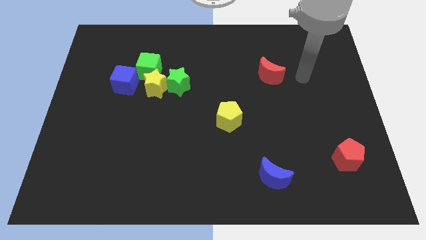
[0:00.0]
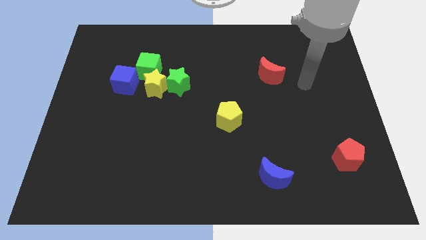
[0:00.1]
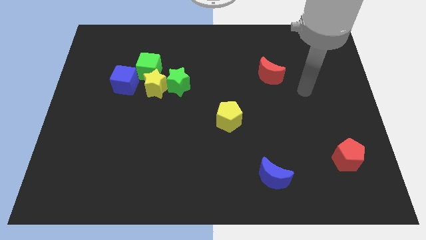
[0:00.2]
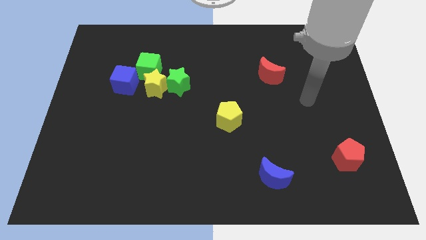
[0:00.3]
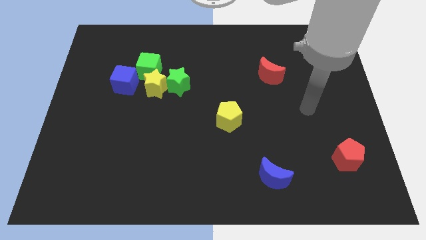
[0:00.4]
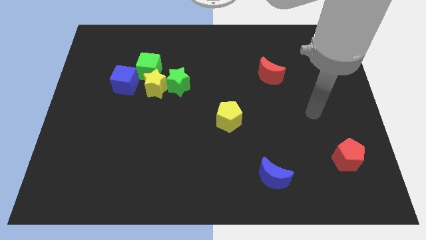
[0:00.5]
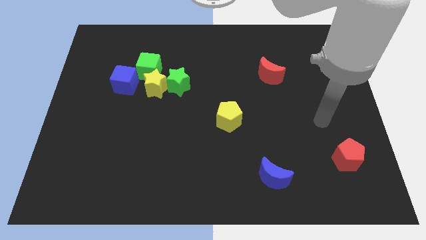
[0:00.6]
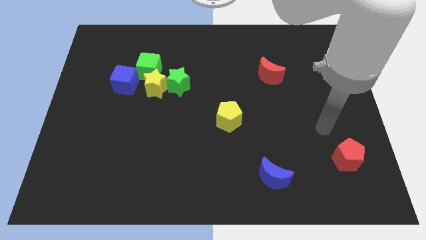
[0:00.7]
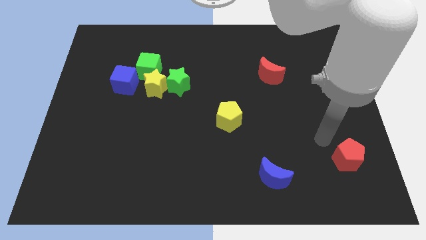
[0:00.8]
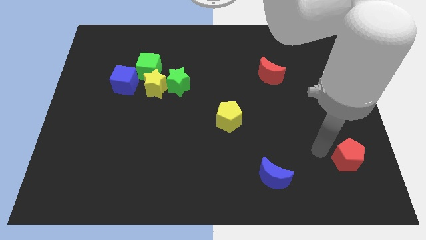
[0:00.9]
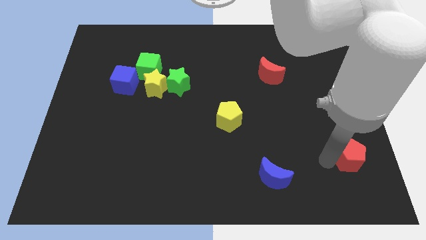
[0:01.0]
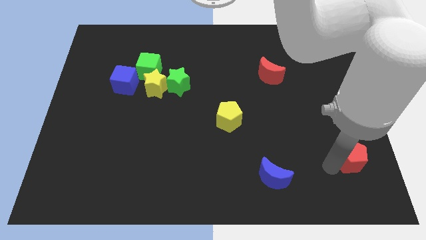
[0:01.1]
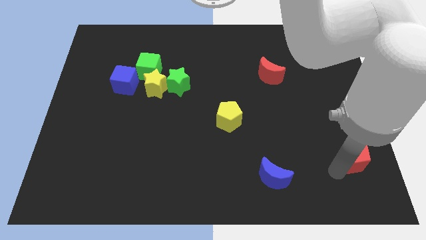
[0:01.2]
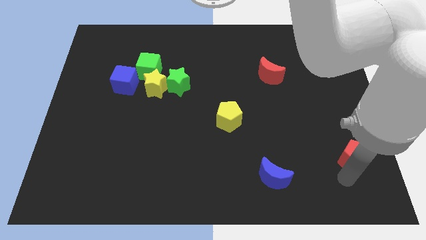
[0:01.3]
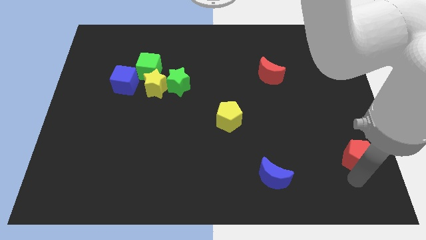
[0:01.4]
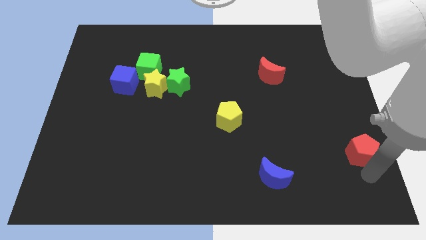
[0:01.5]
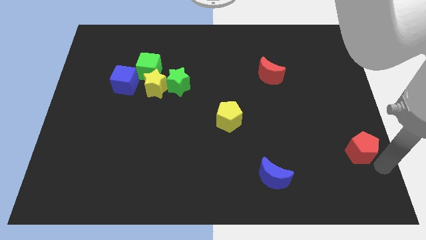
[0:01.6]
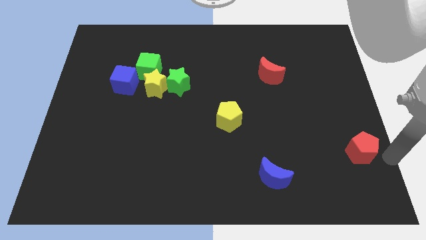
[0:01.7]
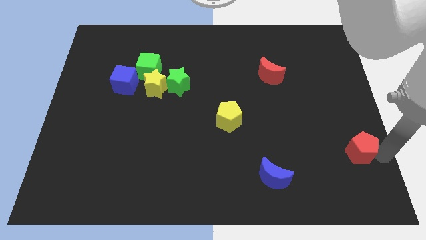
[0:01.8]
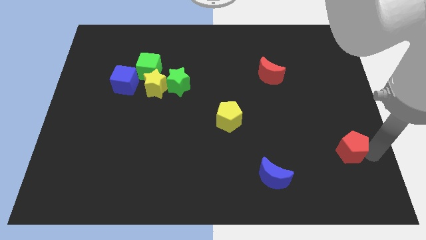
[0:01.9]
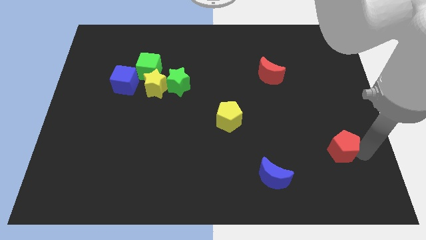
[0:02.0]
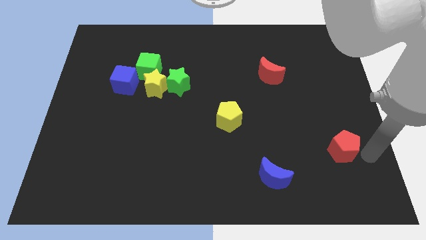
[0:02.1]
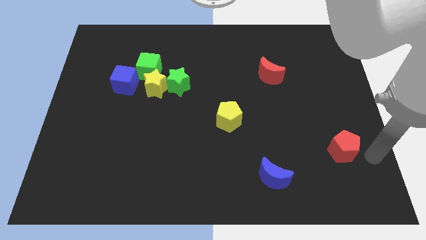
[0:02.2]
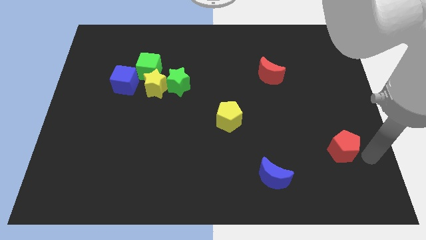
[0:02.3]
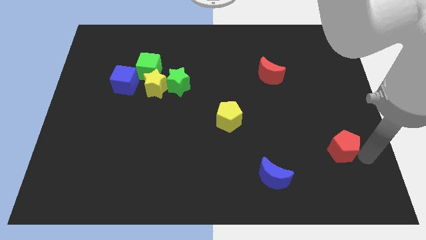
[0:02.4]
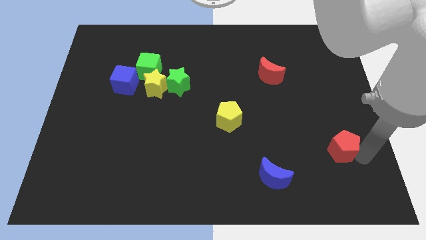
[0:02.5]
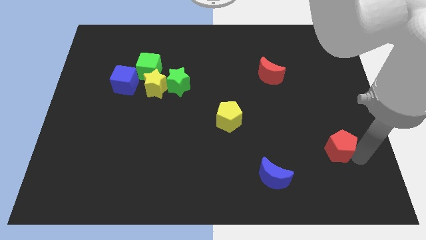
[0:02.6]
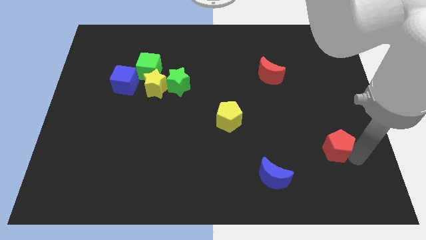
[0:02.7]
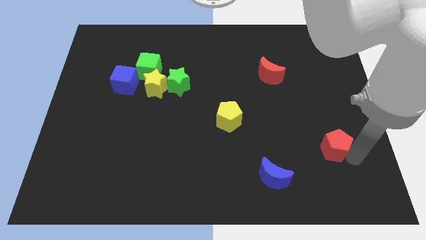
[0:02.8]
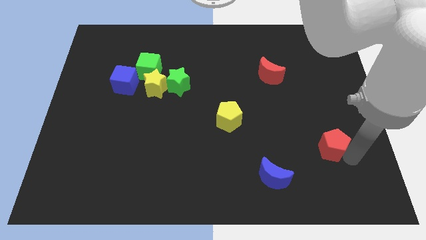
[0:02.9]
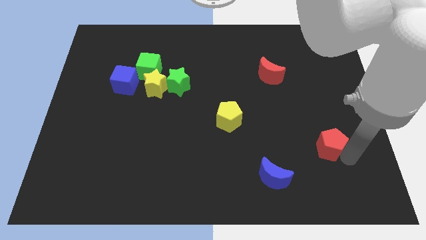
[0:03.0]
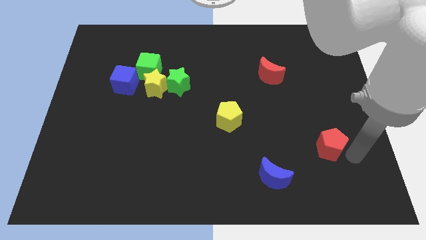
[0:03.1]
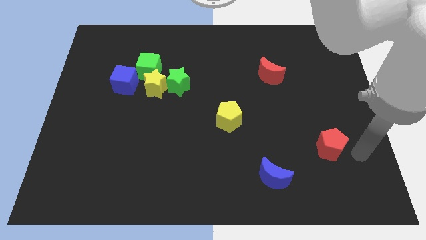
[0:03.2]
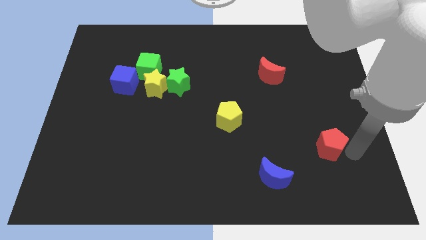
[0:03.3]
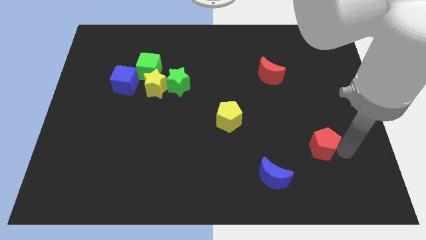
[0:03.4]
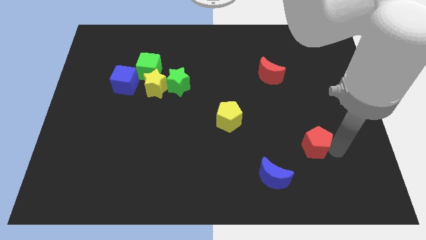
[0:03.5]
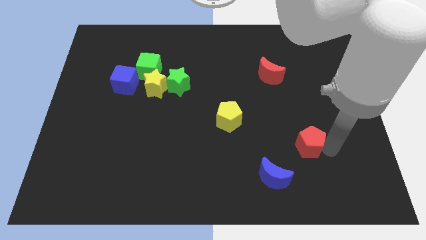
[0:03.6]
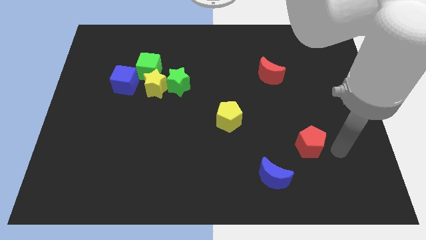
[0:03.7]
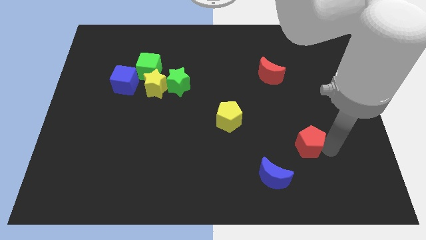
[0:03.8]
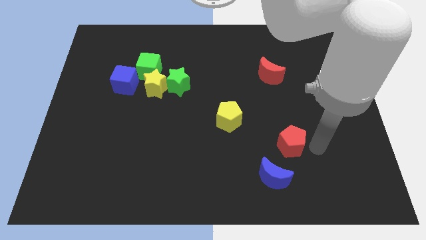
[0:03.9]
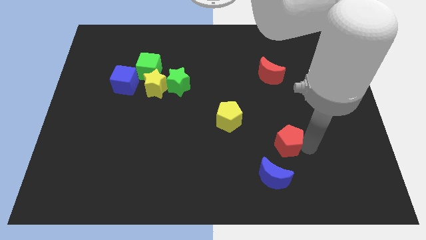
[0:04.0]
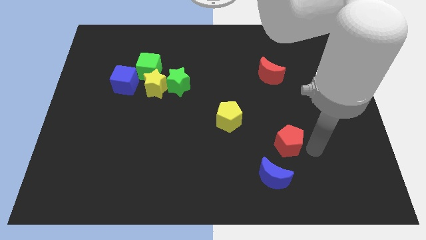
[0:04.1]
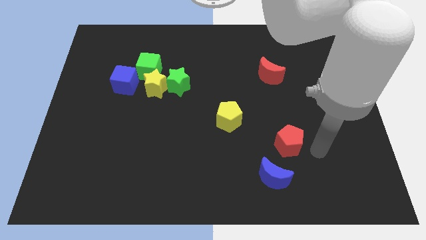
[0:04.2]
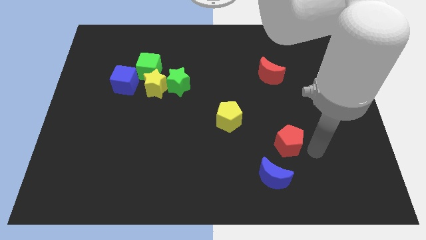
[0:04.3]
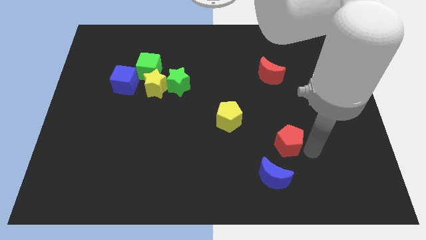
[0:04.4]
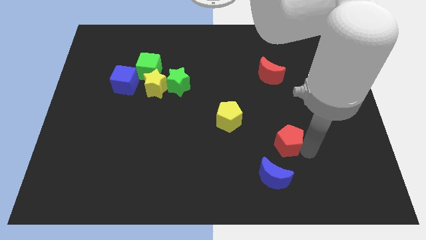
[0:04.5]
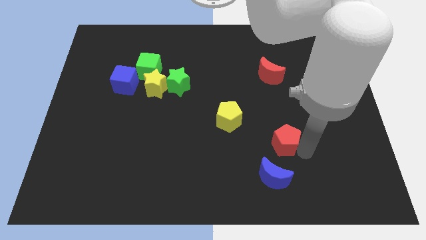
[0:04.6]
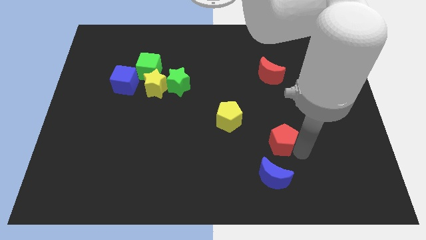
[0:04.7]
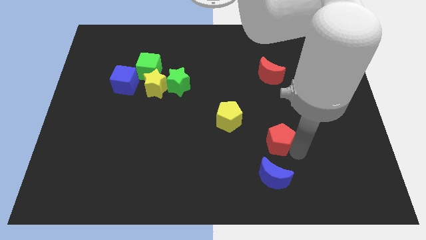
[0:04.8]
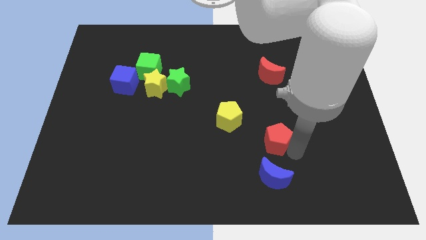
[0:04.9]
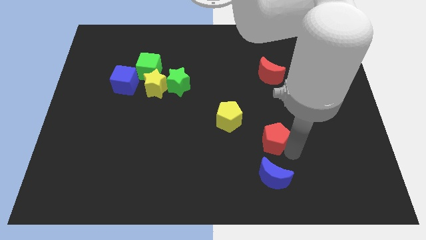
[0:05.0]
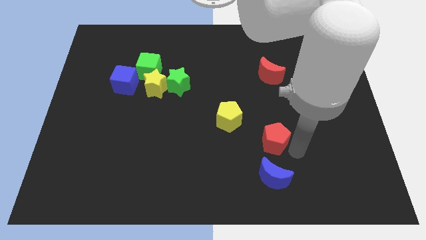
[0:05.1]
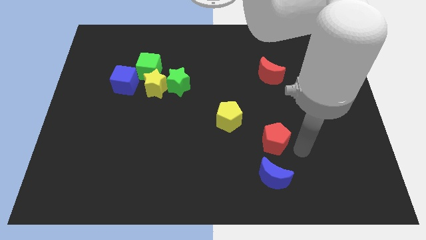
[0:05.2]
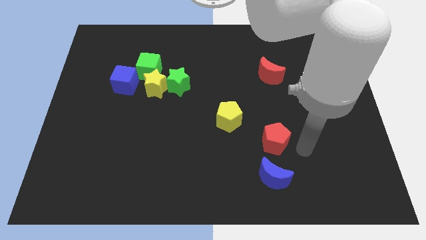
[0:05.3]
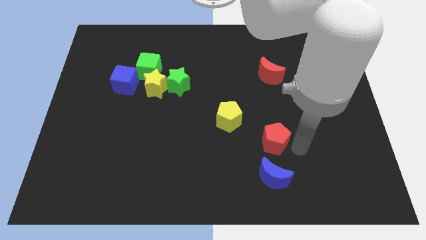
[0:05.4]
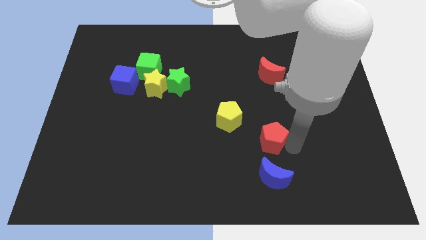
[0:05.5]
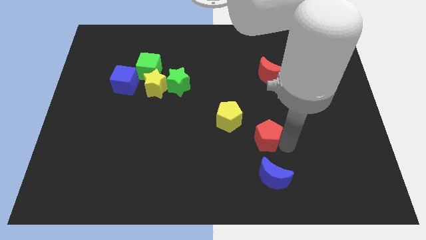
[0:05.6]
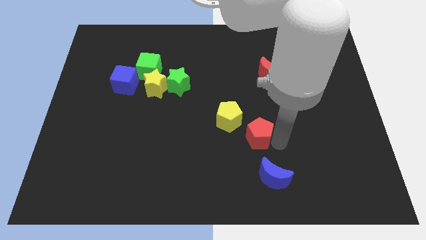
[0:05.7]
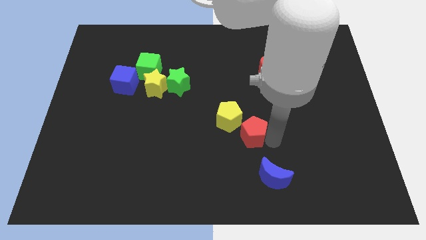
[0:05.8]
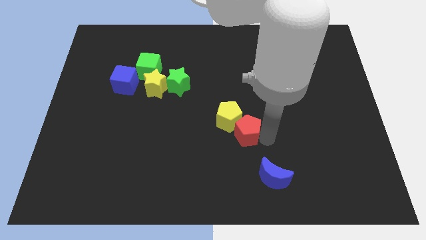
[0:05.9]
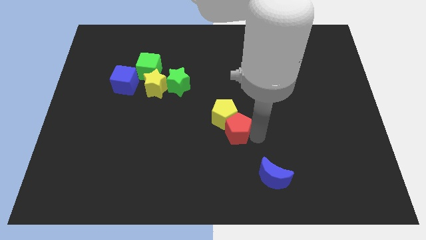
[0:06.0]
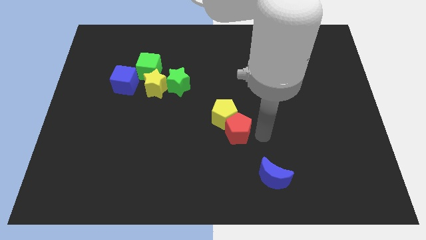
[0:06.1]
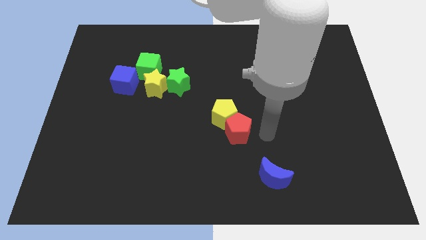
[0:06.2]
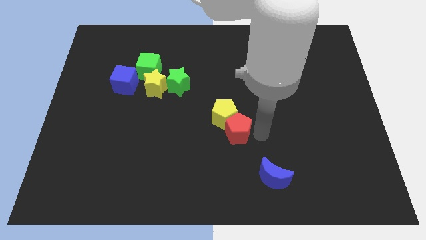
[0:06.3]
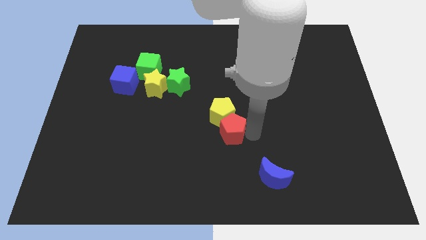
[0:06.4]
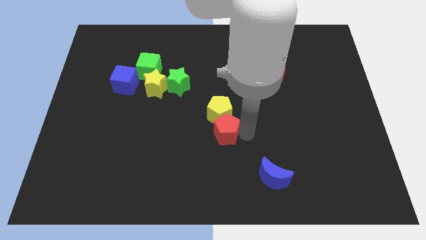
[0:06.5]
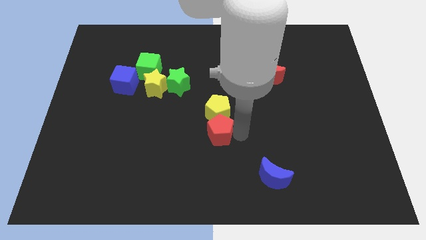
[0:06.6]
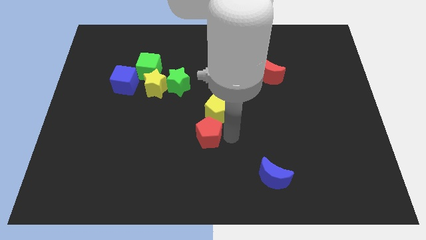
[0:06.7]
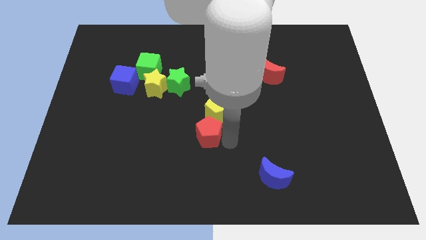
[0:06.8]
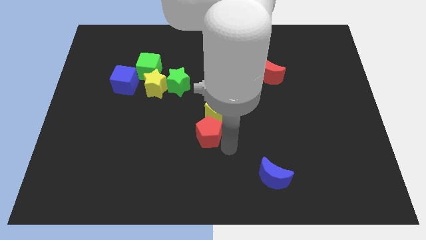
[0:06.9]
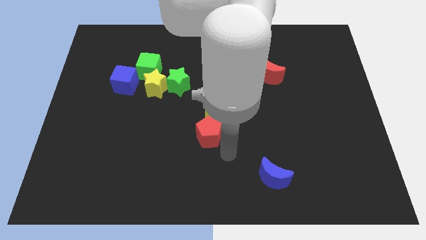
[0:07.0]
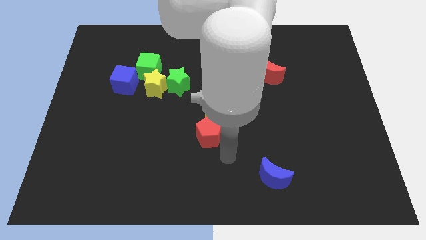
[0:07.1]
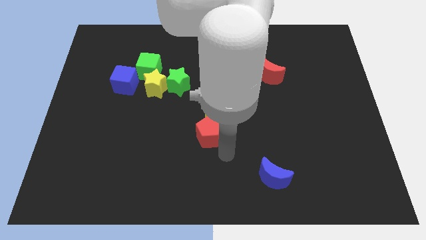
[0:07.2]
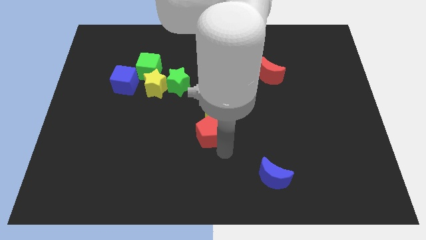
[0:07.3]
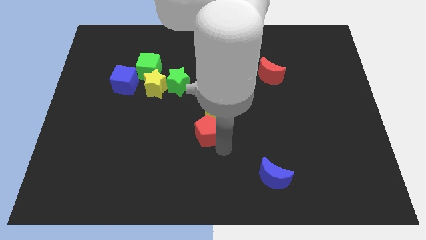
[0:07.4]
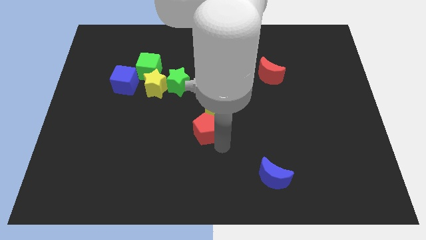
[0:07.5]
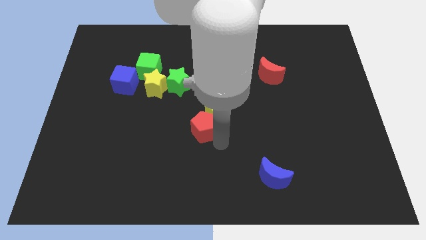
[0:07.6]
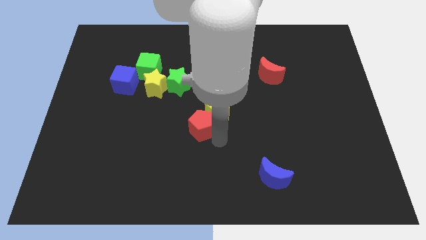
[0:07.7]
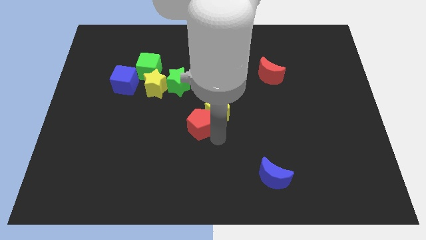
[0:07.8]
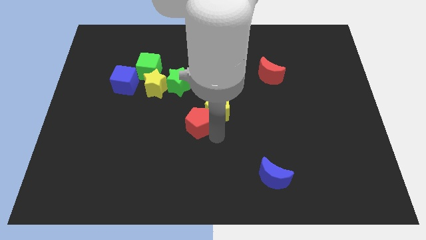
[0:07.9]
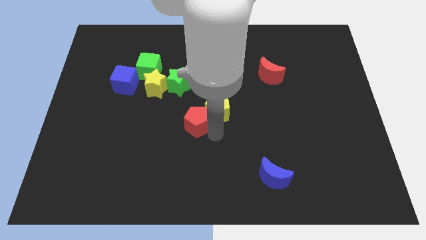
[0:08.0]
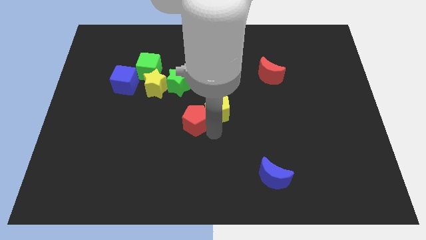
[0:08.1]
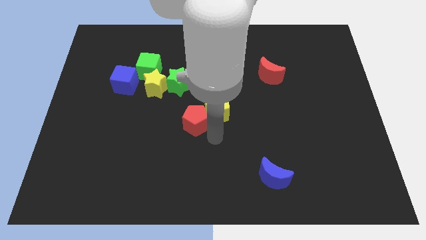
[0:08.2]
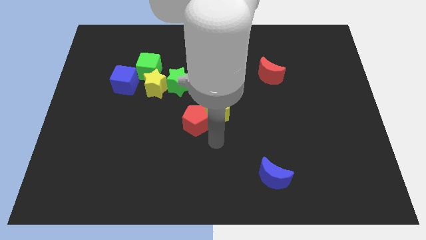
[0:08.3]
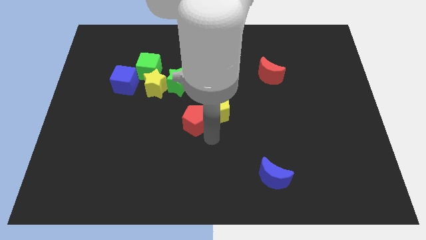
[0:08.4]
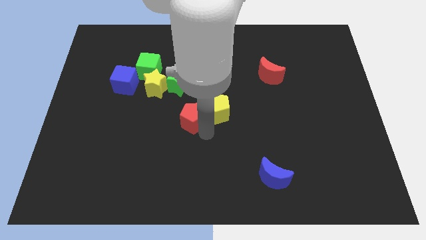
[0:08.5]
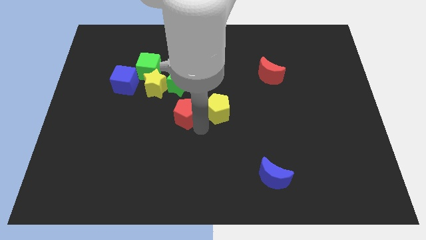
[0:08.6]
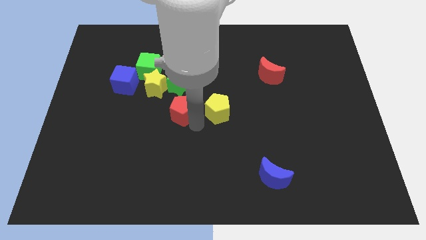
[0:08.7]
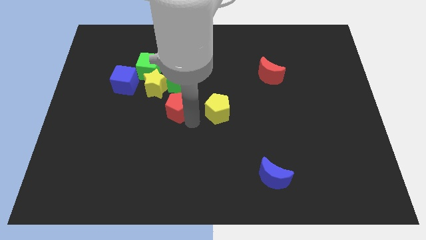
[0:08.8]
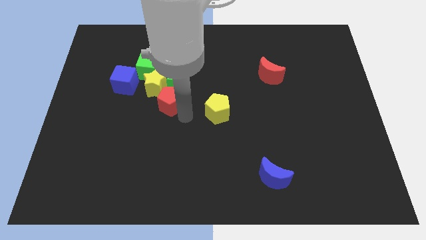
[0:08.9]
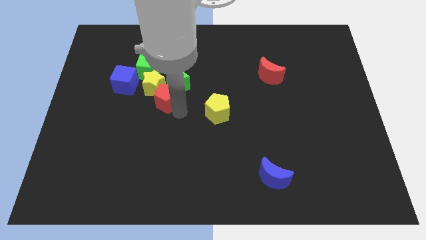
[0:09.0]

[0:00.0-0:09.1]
push the red pentagon next to the yellow star
